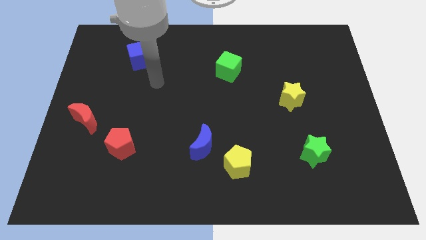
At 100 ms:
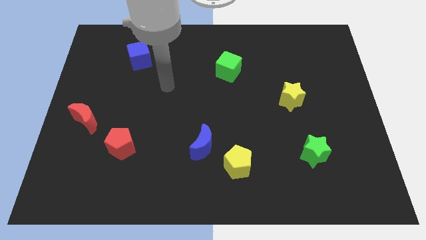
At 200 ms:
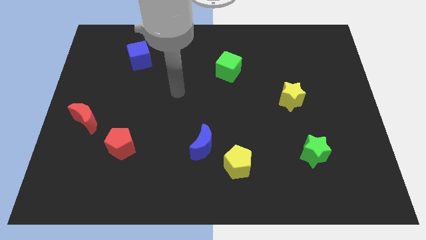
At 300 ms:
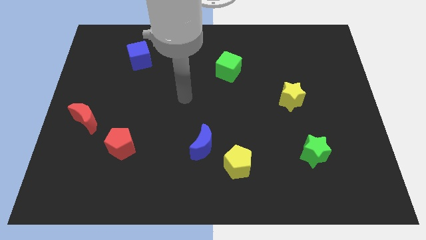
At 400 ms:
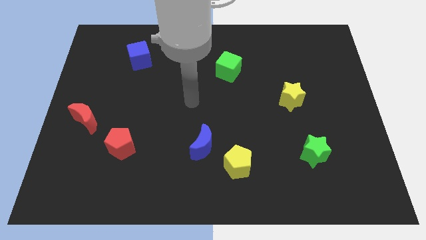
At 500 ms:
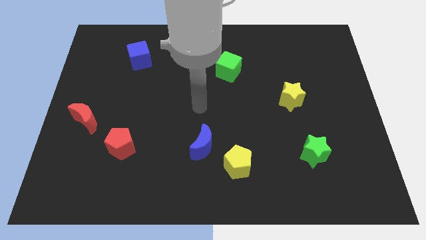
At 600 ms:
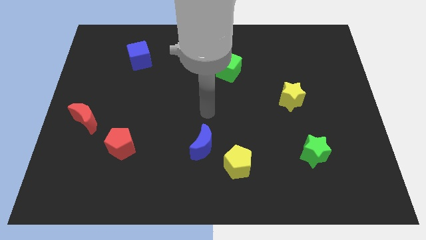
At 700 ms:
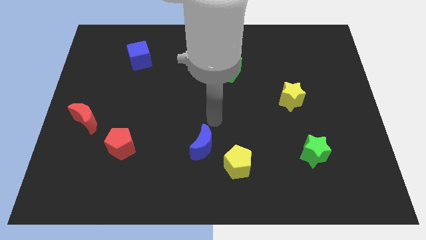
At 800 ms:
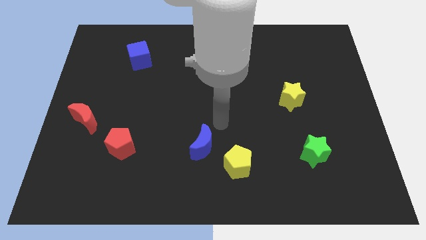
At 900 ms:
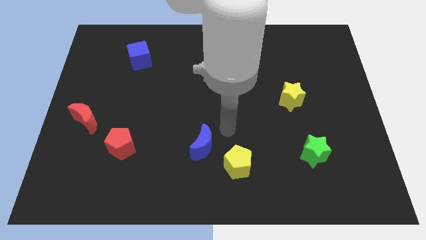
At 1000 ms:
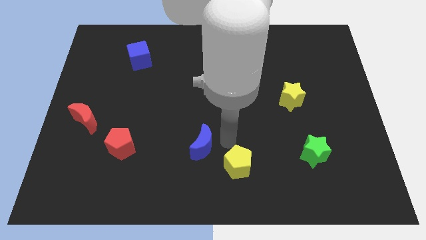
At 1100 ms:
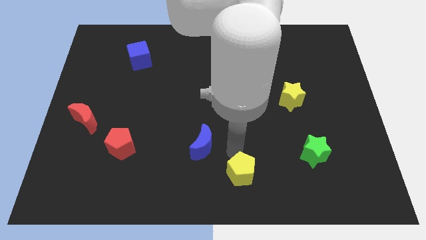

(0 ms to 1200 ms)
move the blue moon away from the yellow pentagon

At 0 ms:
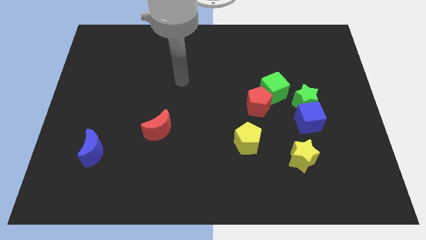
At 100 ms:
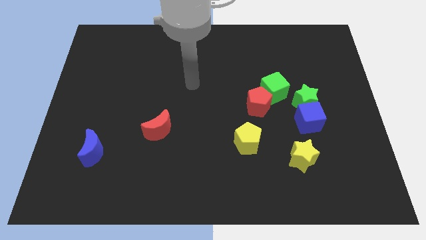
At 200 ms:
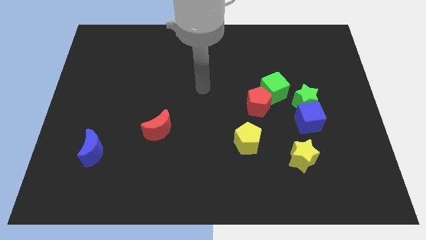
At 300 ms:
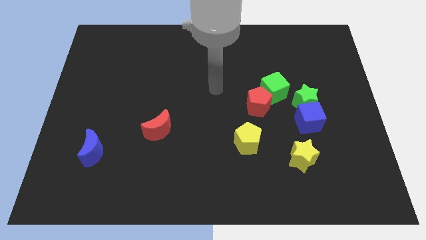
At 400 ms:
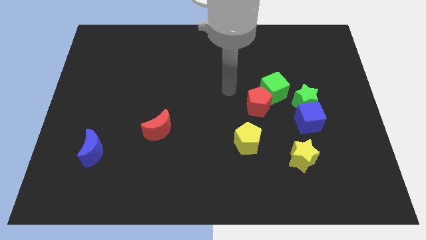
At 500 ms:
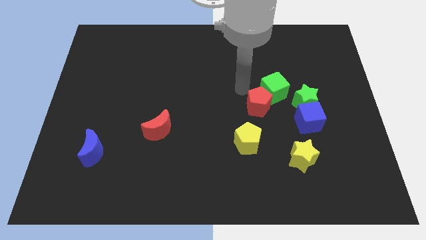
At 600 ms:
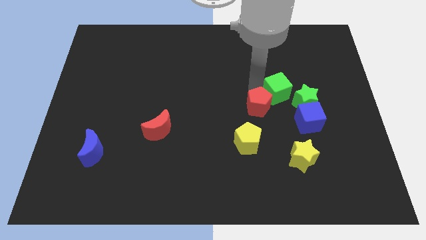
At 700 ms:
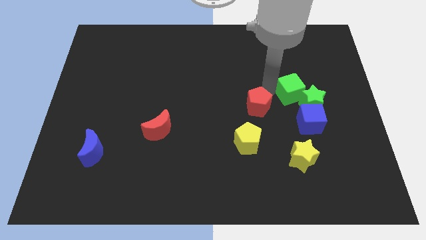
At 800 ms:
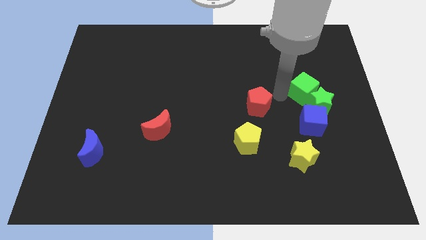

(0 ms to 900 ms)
pull the red pentagon apart from the green cube

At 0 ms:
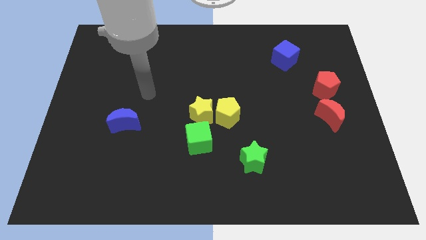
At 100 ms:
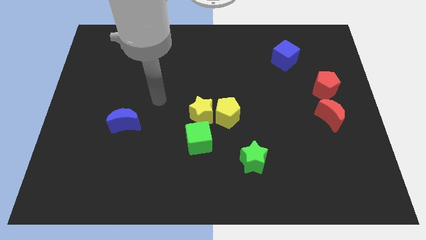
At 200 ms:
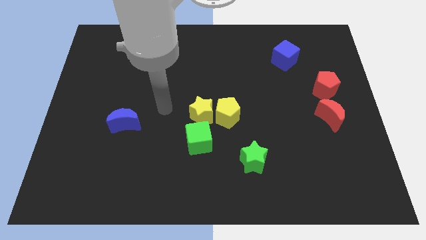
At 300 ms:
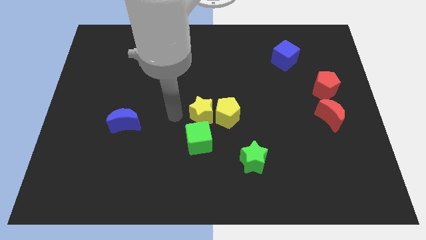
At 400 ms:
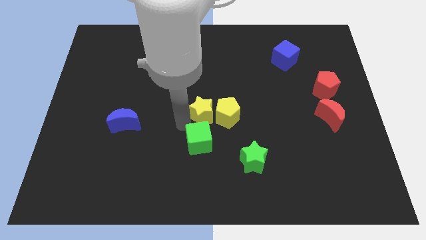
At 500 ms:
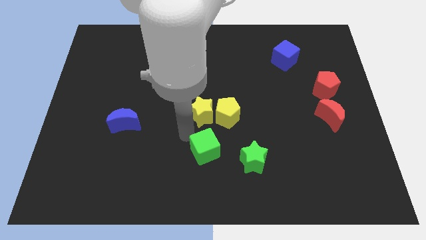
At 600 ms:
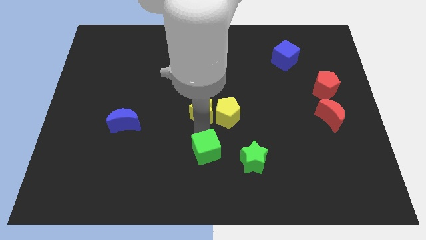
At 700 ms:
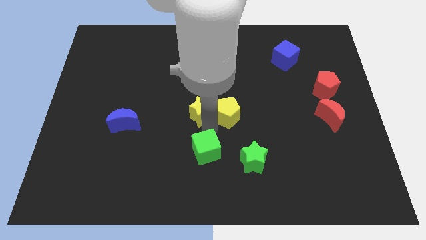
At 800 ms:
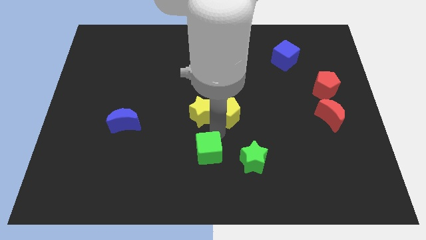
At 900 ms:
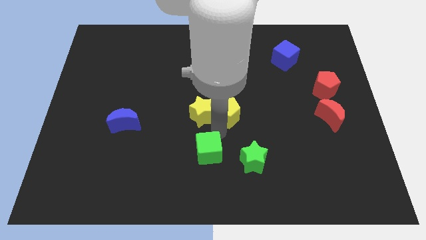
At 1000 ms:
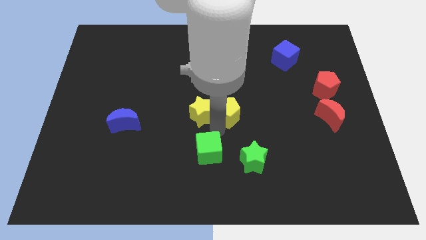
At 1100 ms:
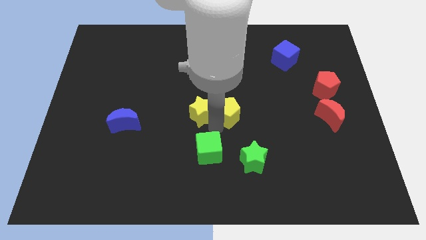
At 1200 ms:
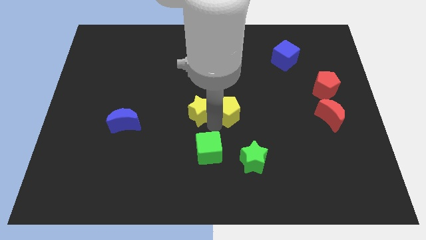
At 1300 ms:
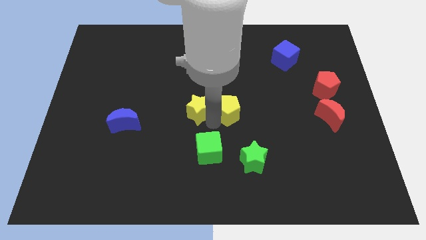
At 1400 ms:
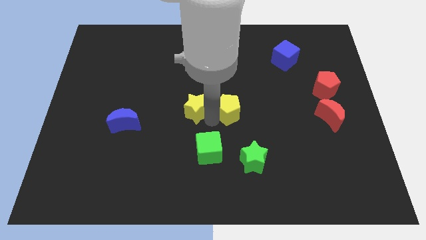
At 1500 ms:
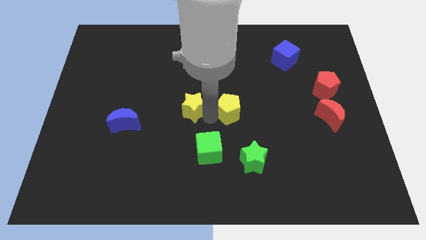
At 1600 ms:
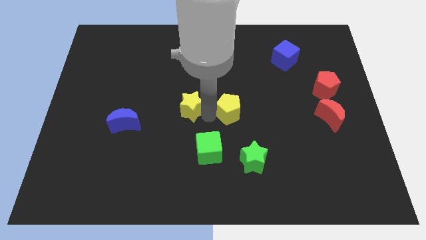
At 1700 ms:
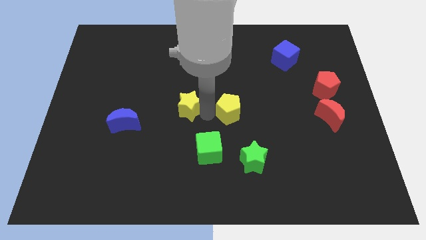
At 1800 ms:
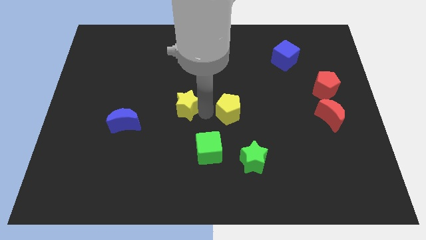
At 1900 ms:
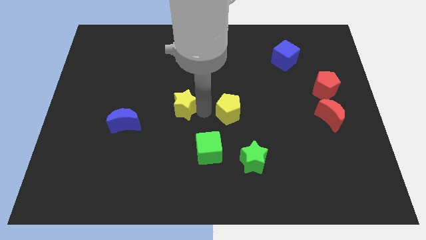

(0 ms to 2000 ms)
pull the yellow star apart from the yellow pentagon and green cube

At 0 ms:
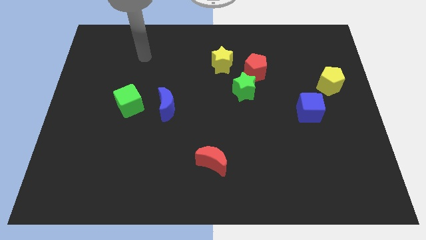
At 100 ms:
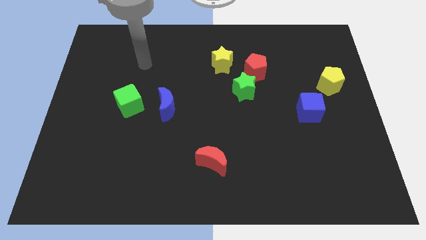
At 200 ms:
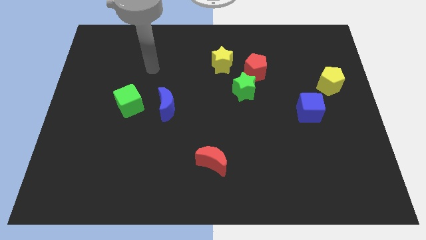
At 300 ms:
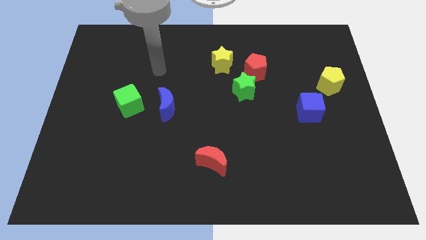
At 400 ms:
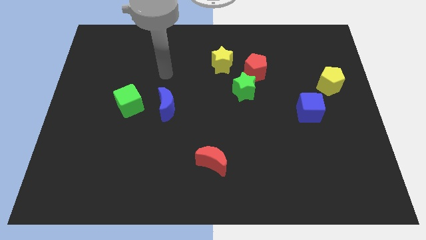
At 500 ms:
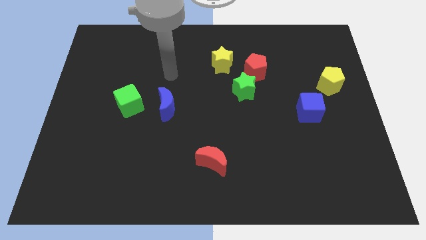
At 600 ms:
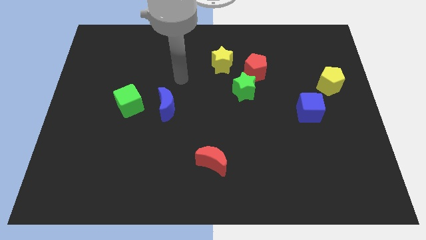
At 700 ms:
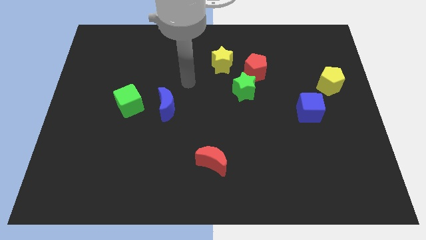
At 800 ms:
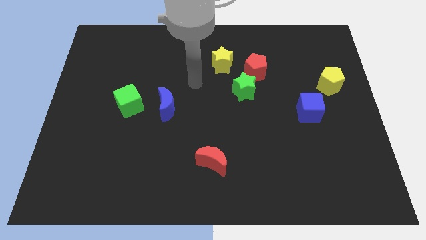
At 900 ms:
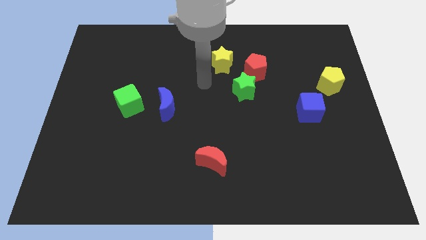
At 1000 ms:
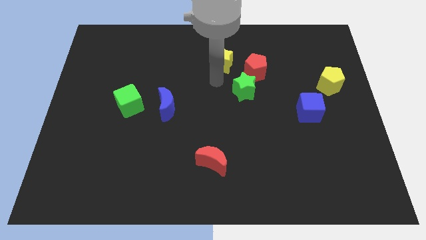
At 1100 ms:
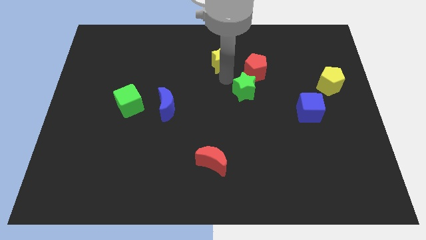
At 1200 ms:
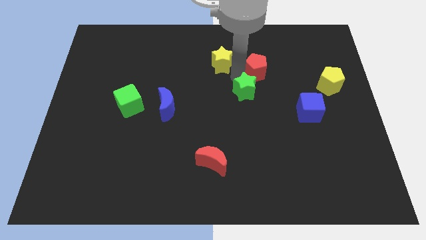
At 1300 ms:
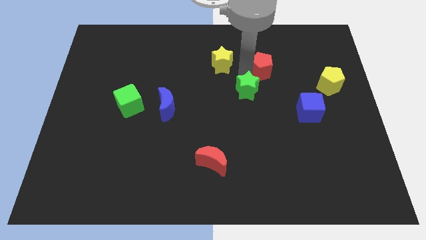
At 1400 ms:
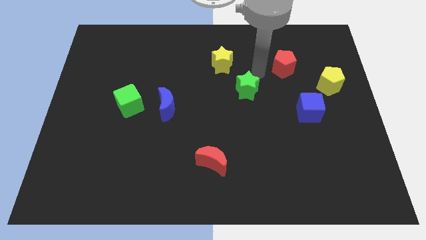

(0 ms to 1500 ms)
pull the green star apart from the red pentagon

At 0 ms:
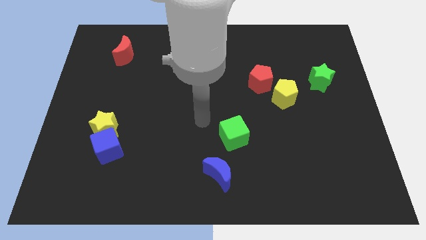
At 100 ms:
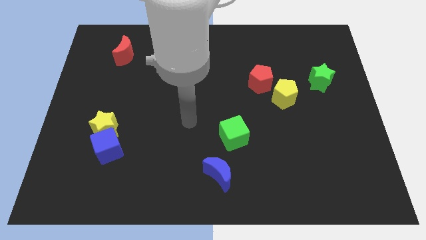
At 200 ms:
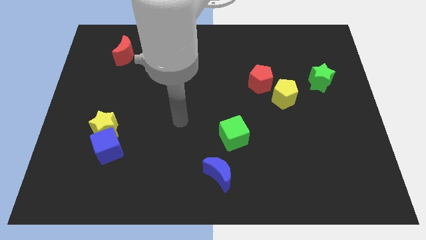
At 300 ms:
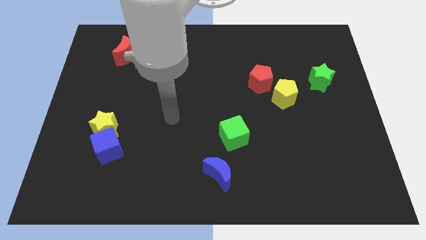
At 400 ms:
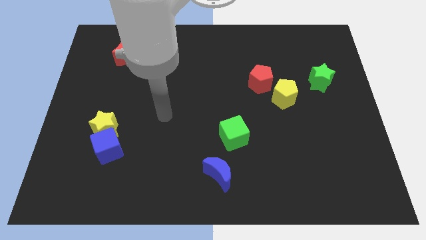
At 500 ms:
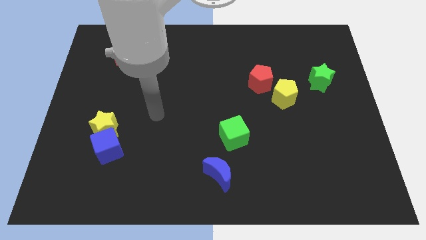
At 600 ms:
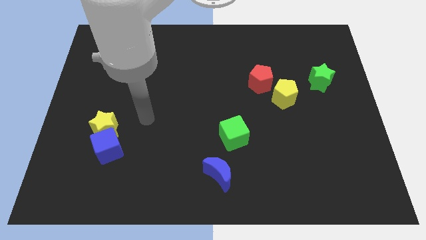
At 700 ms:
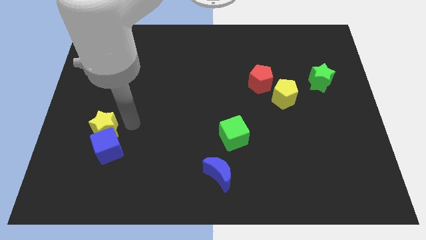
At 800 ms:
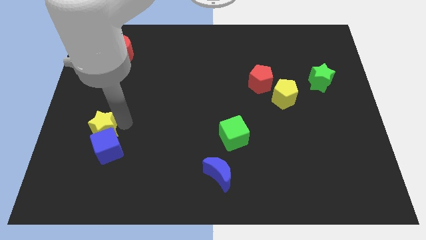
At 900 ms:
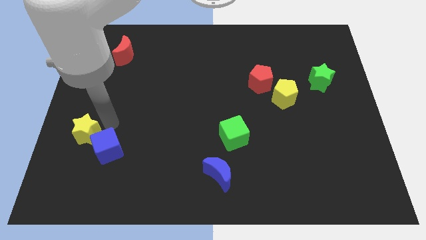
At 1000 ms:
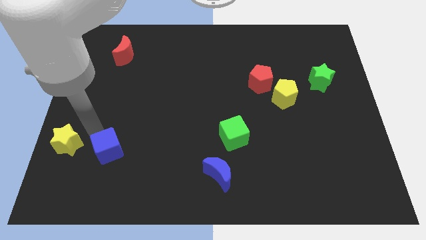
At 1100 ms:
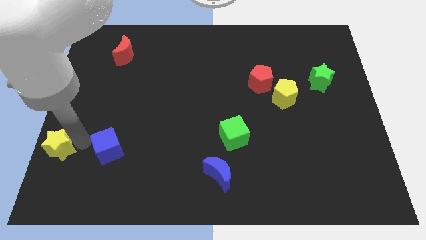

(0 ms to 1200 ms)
move the blue cube away from the yellow star

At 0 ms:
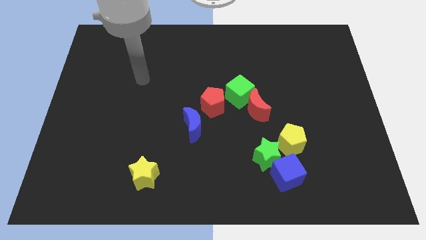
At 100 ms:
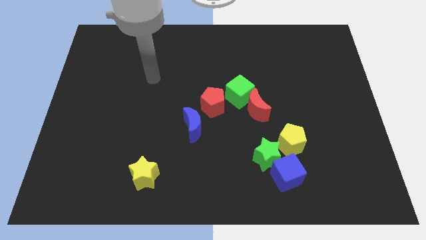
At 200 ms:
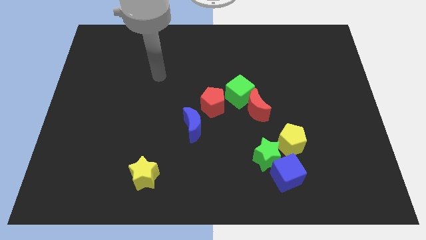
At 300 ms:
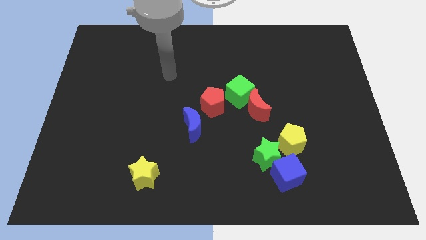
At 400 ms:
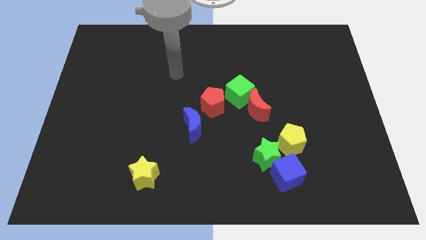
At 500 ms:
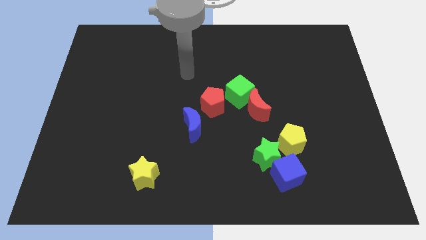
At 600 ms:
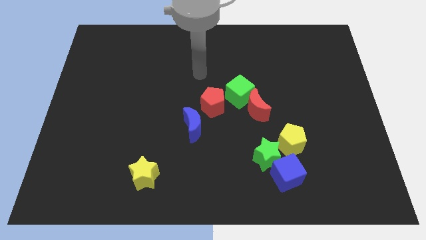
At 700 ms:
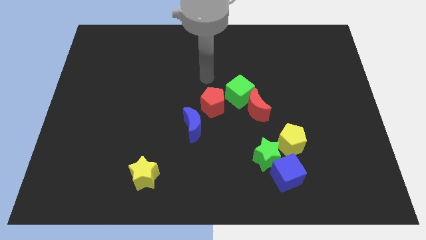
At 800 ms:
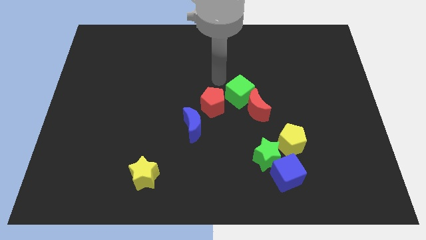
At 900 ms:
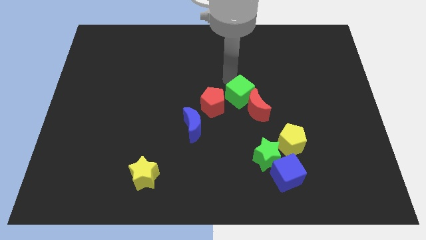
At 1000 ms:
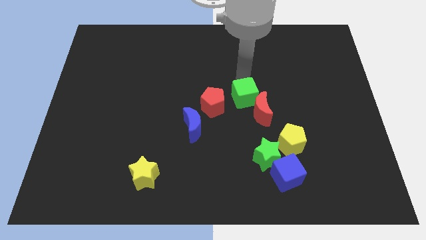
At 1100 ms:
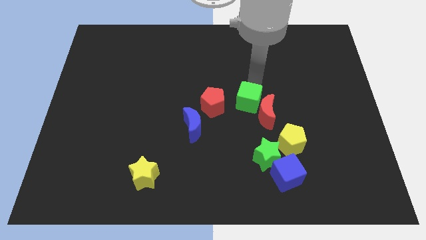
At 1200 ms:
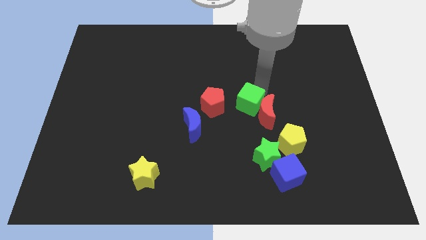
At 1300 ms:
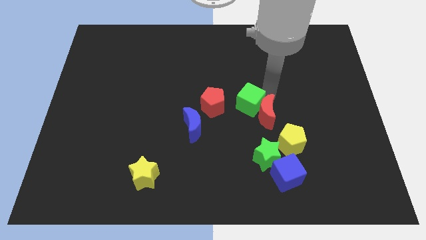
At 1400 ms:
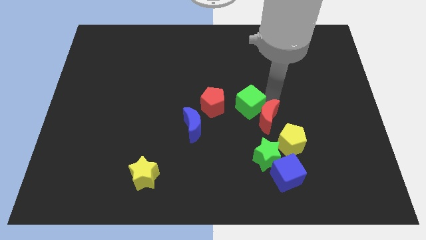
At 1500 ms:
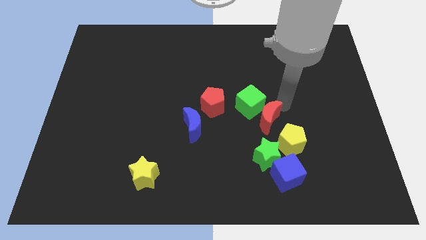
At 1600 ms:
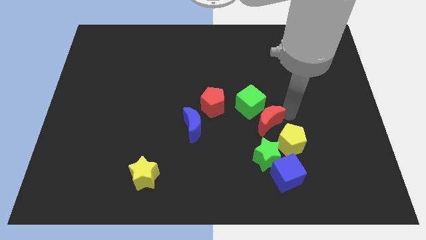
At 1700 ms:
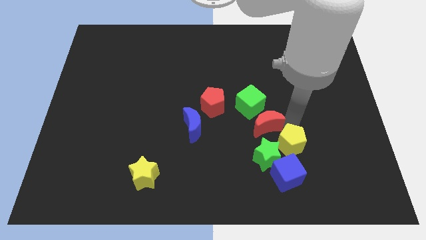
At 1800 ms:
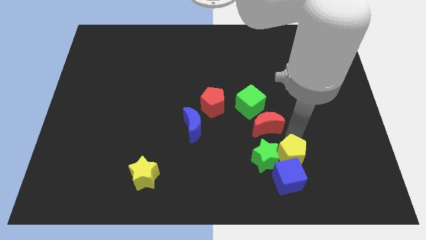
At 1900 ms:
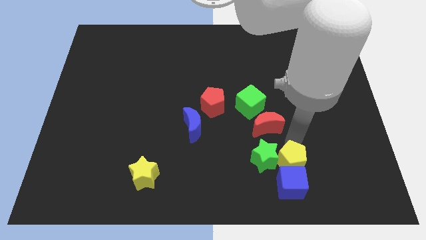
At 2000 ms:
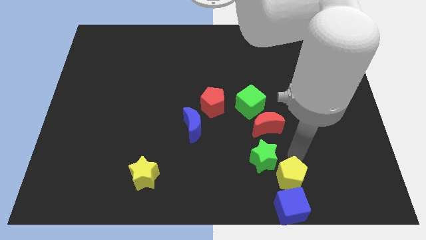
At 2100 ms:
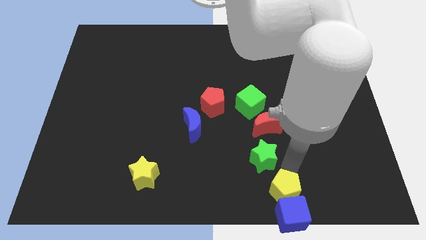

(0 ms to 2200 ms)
separate the green star from the blue cube and yellow pentagon

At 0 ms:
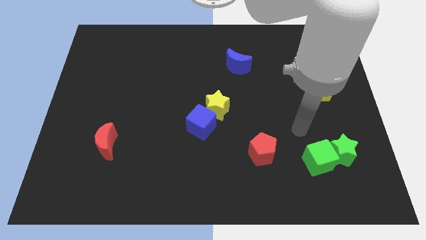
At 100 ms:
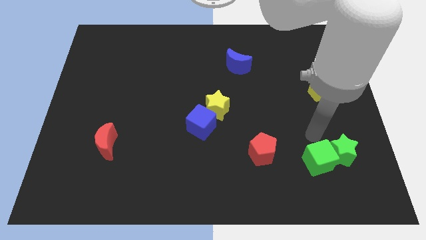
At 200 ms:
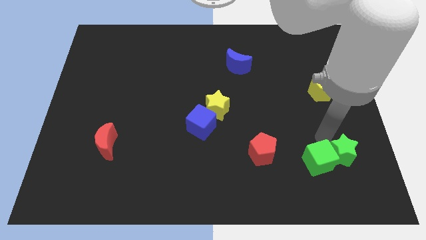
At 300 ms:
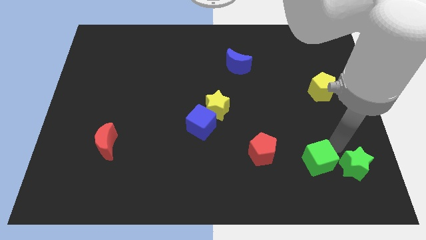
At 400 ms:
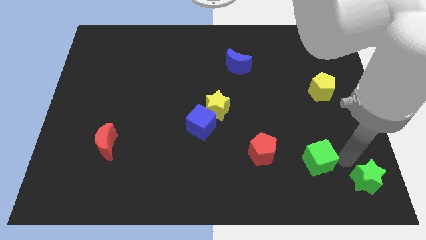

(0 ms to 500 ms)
separate the green cube from the green star
